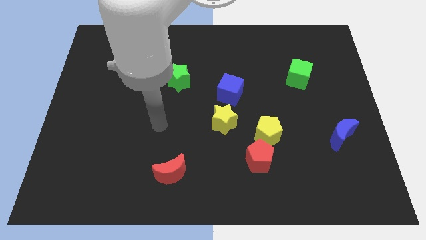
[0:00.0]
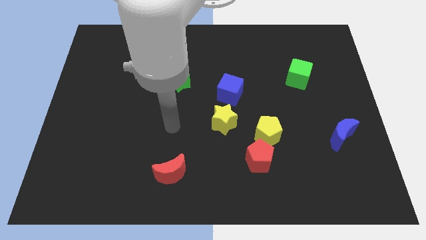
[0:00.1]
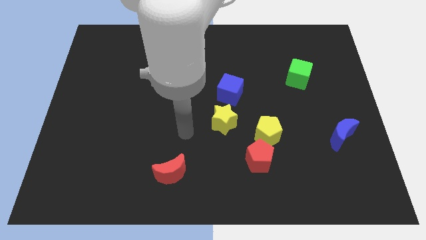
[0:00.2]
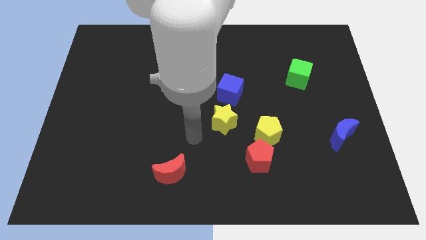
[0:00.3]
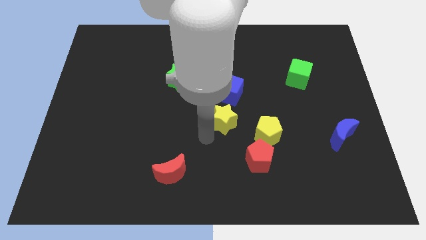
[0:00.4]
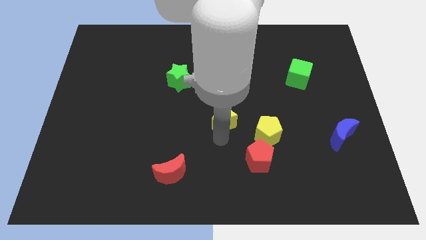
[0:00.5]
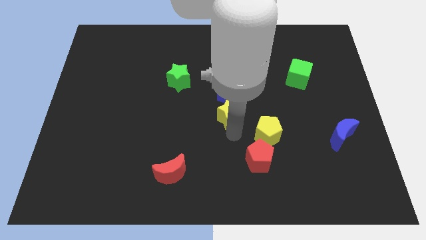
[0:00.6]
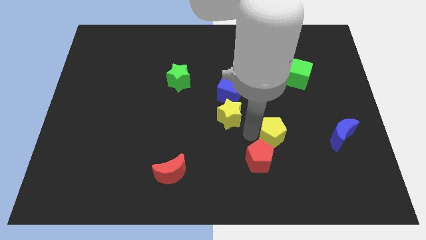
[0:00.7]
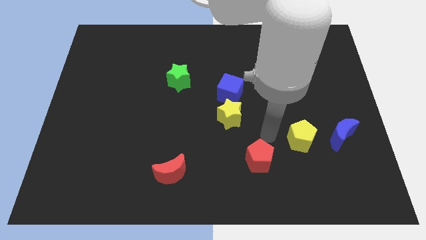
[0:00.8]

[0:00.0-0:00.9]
separate the red pentagon from the yellow pentagon

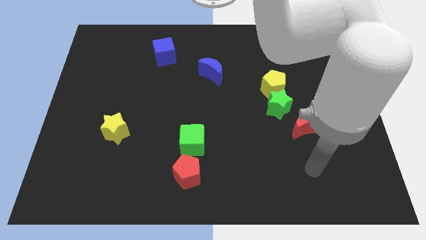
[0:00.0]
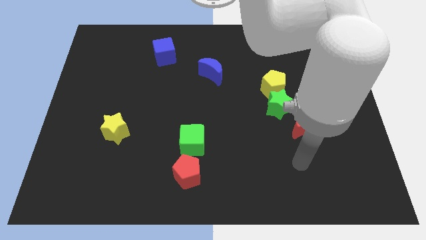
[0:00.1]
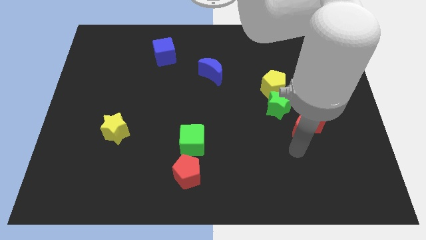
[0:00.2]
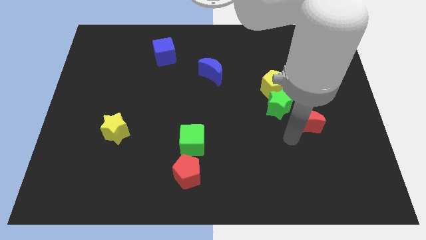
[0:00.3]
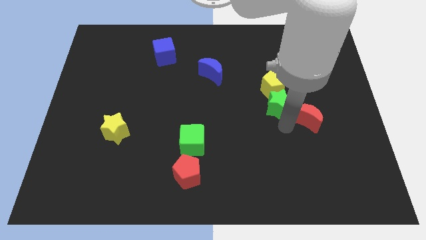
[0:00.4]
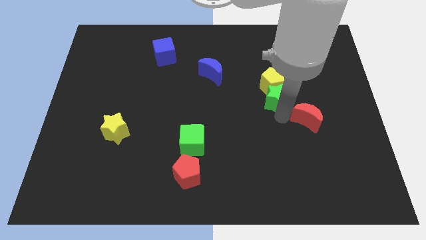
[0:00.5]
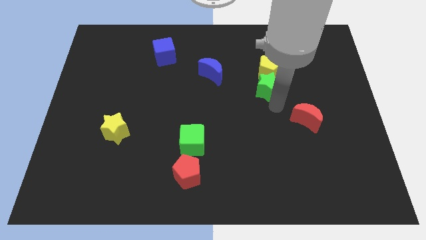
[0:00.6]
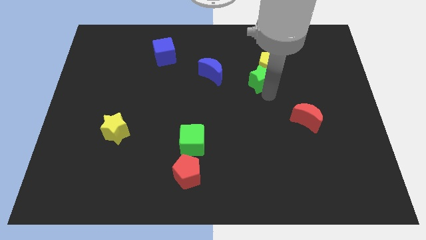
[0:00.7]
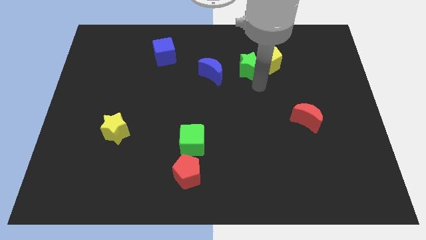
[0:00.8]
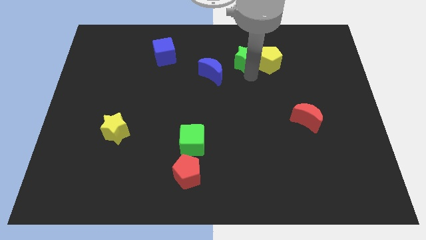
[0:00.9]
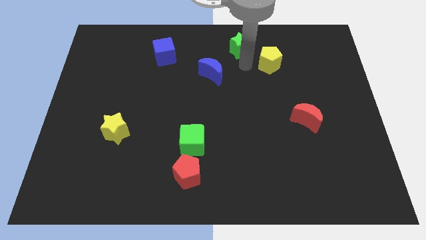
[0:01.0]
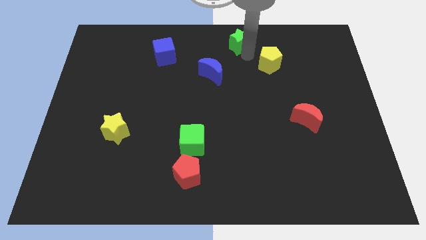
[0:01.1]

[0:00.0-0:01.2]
pull the yellow pentagon apart from the green star

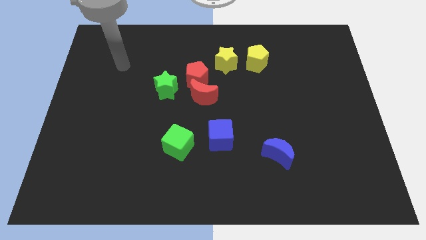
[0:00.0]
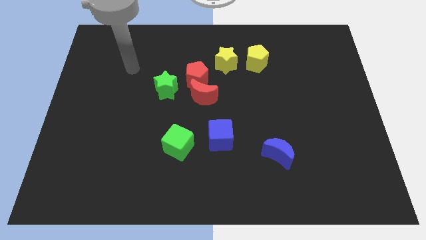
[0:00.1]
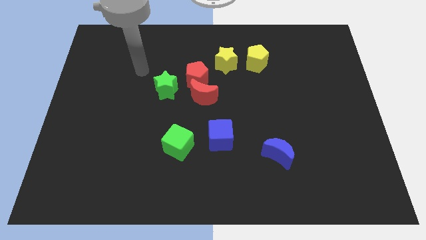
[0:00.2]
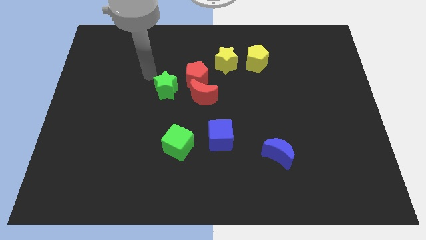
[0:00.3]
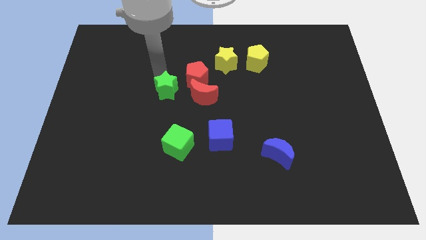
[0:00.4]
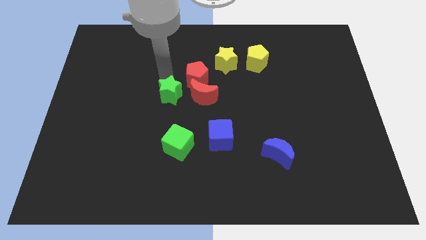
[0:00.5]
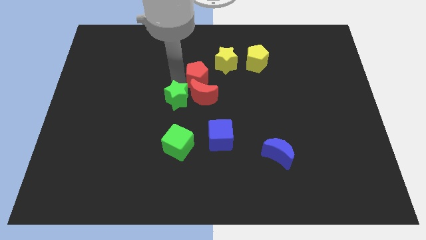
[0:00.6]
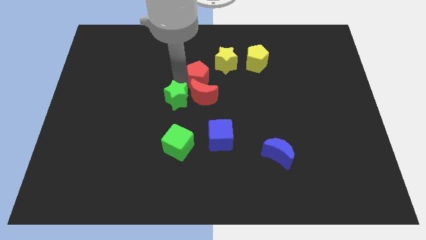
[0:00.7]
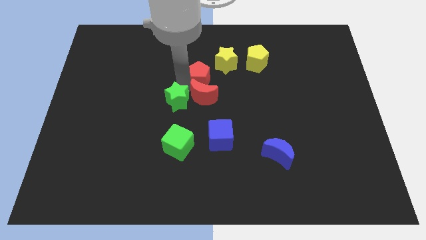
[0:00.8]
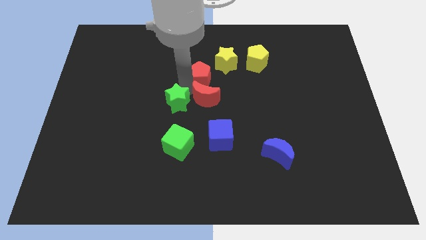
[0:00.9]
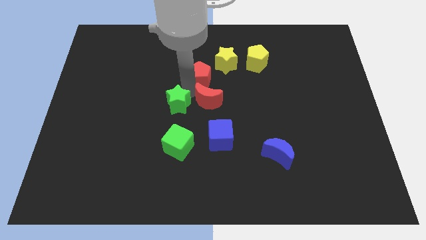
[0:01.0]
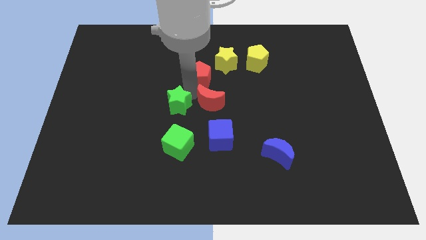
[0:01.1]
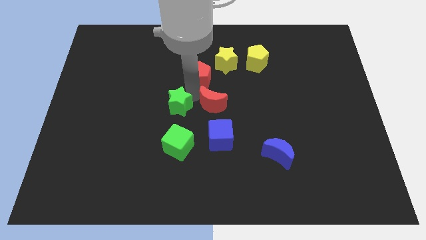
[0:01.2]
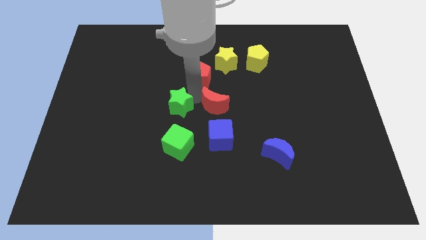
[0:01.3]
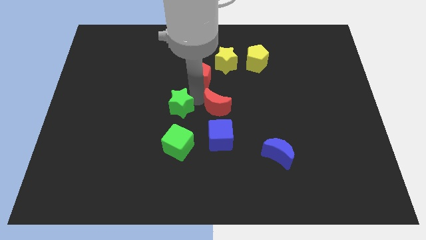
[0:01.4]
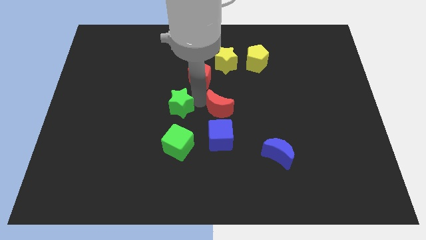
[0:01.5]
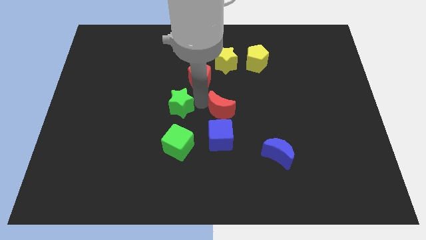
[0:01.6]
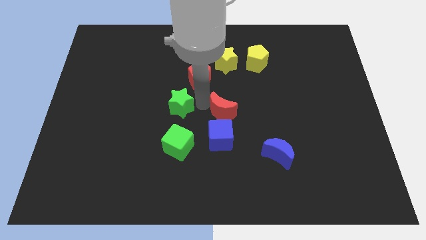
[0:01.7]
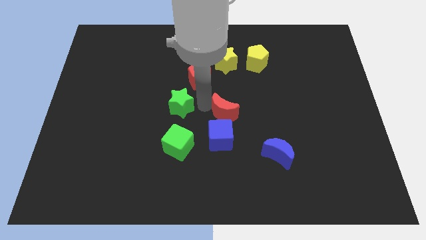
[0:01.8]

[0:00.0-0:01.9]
pull the red moon apart from the red pentagon and green star

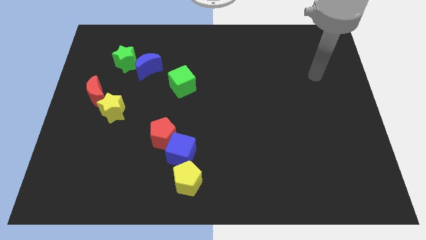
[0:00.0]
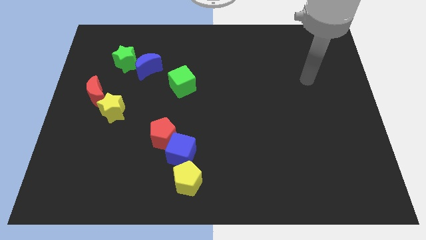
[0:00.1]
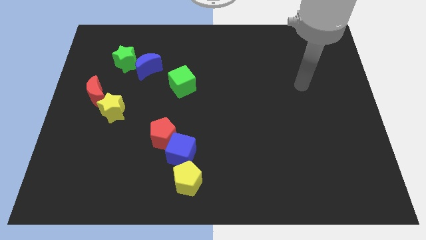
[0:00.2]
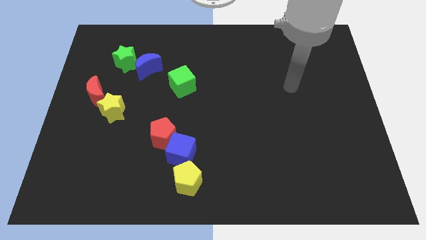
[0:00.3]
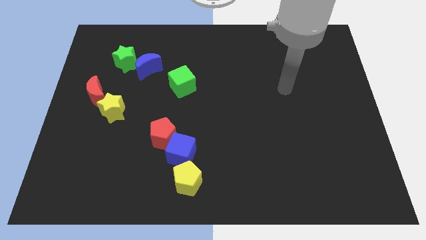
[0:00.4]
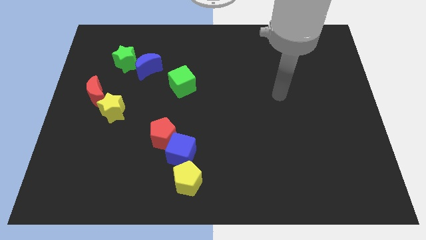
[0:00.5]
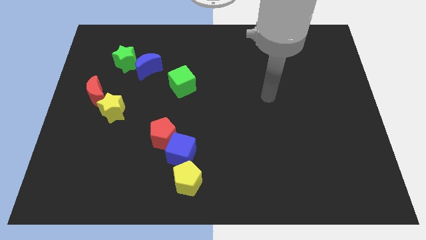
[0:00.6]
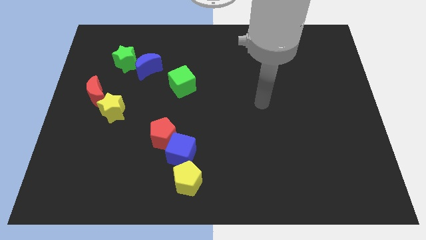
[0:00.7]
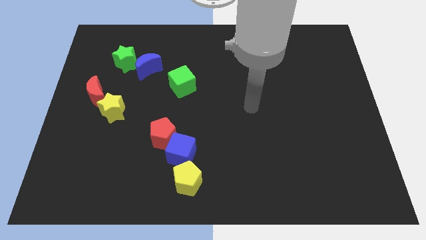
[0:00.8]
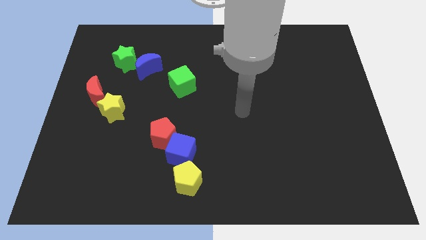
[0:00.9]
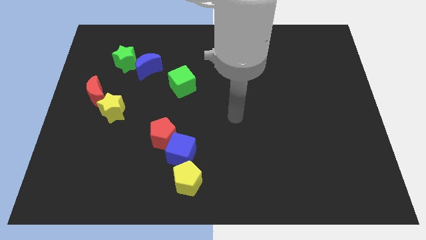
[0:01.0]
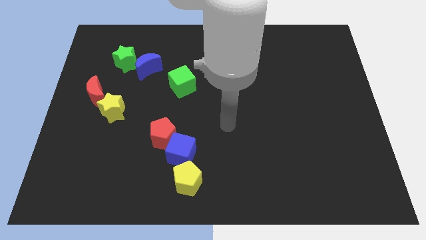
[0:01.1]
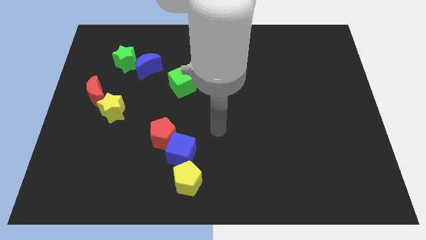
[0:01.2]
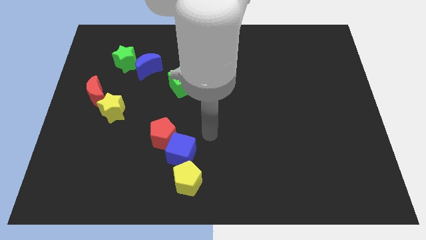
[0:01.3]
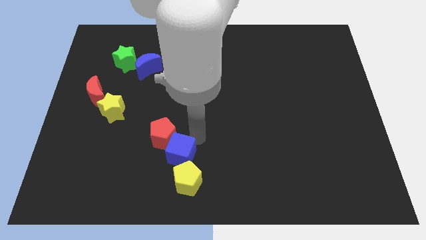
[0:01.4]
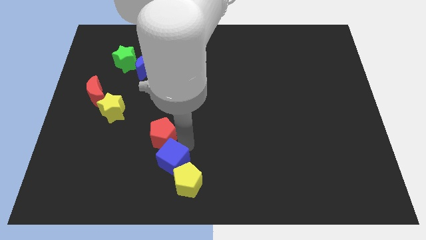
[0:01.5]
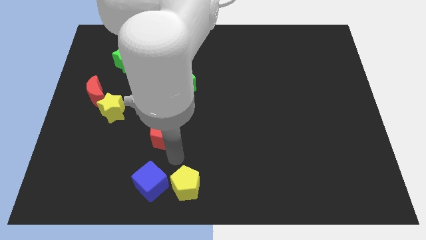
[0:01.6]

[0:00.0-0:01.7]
pull the red pentagon apart from the blue cube

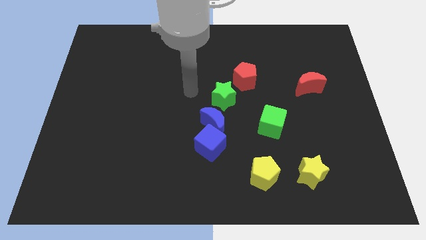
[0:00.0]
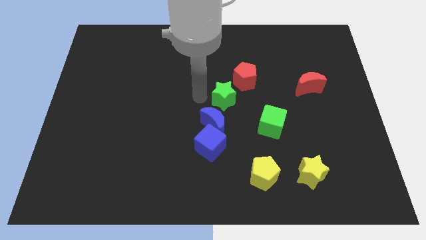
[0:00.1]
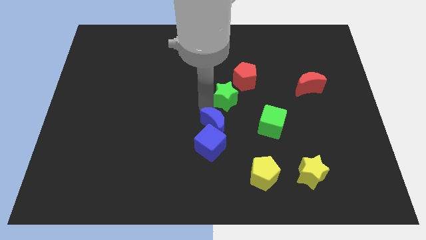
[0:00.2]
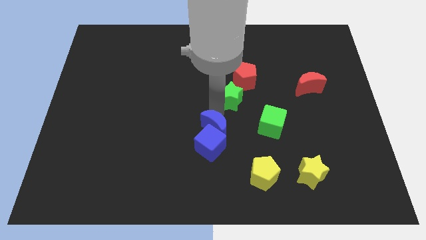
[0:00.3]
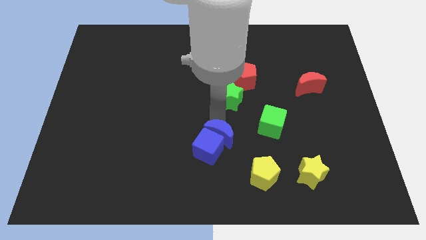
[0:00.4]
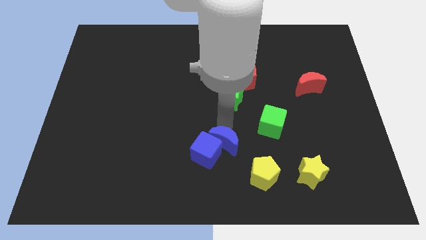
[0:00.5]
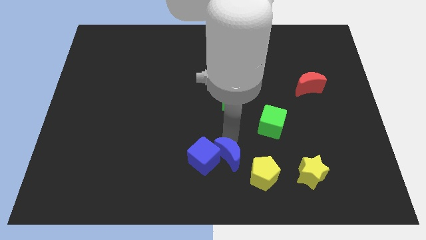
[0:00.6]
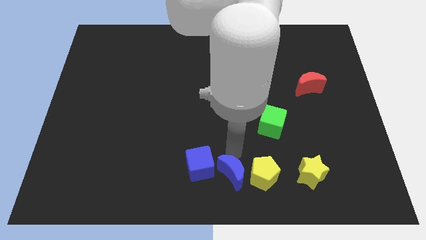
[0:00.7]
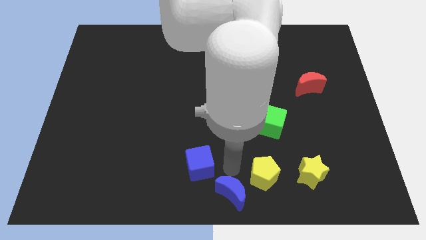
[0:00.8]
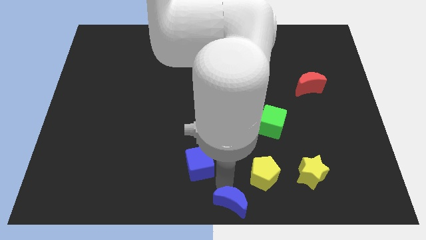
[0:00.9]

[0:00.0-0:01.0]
move the blue cube away from the blue moon

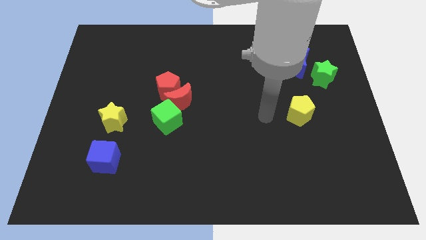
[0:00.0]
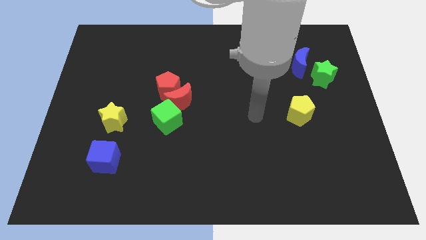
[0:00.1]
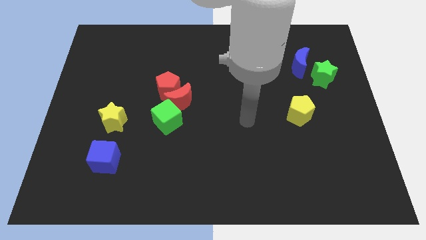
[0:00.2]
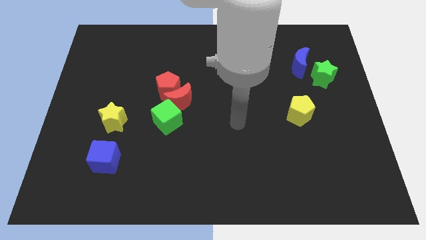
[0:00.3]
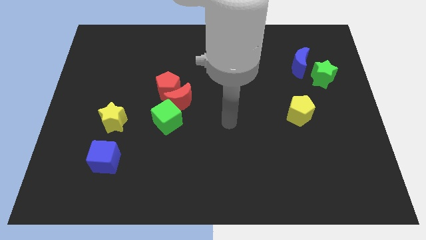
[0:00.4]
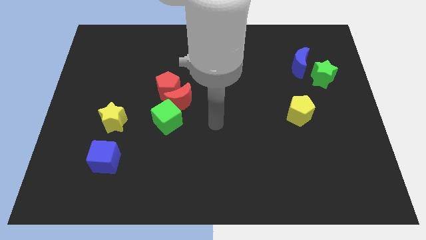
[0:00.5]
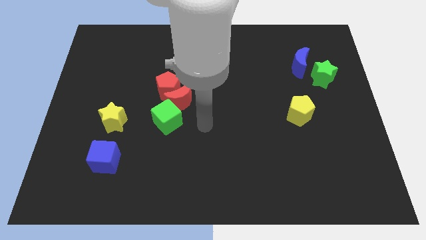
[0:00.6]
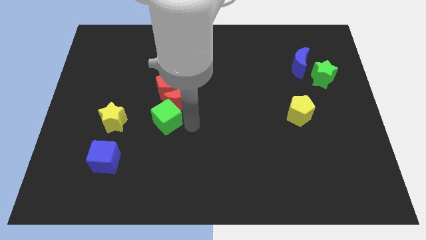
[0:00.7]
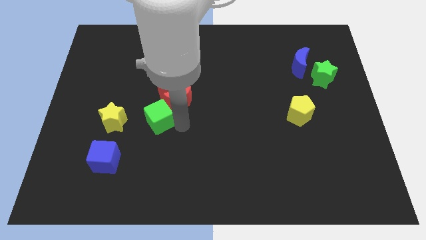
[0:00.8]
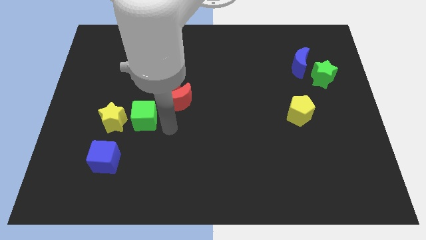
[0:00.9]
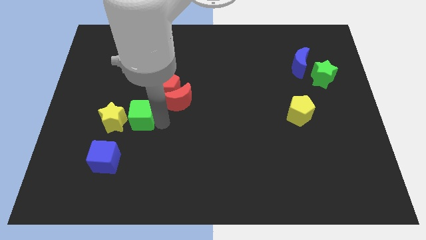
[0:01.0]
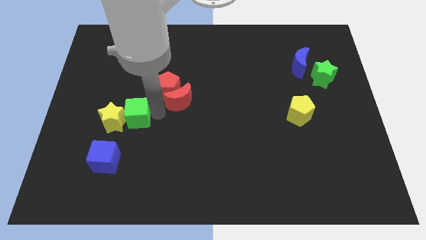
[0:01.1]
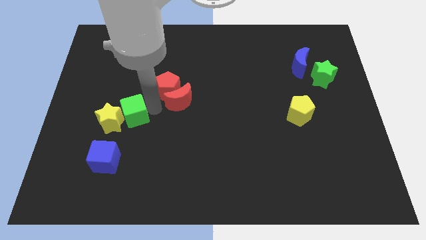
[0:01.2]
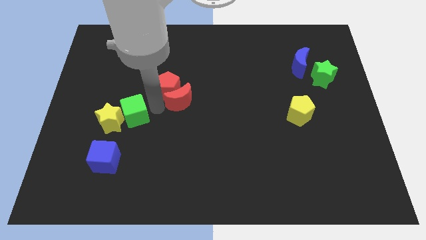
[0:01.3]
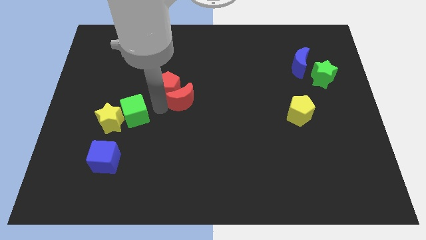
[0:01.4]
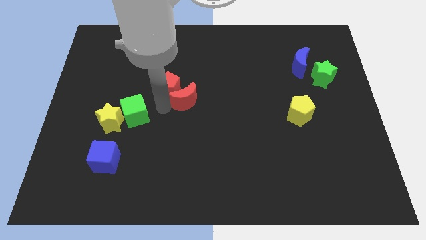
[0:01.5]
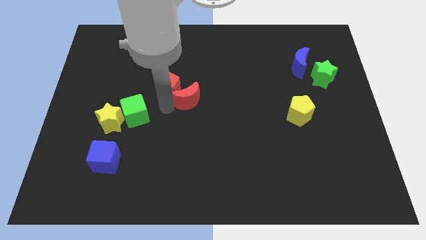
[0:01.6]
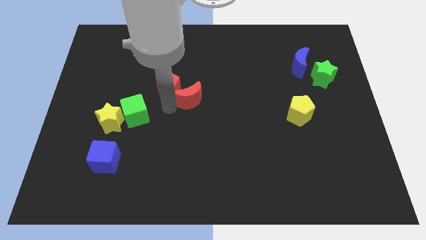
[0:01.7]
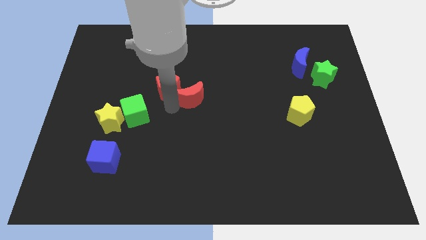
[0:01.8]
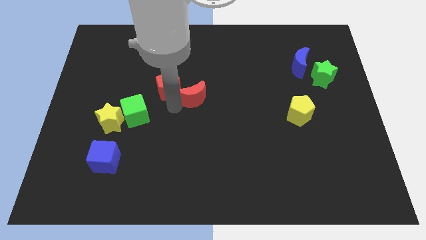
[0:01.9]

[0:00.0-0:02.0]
separate the red moon from the red pentagon and green cube

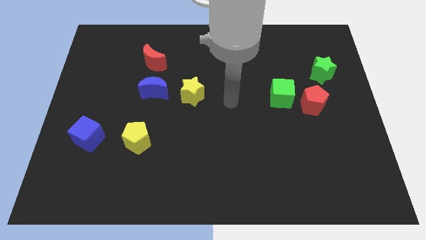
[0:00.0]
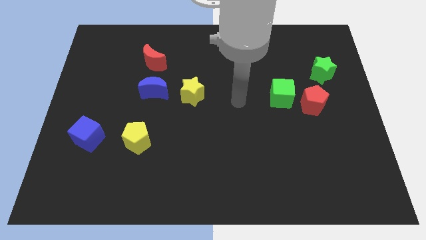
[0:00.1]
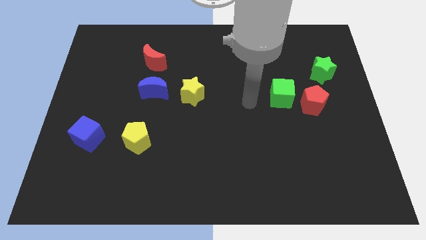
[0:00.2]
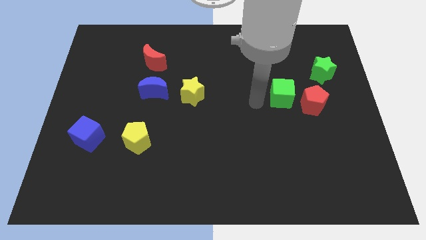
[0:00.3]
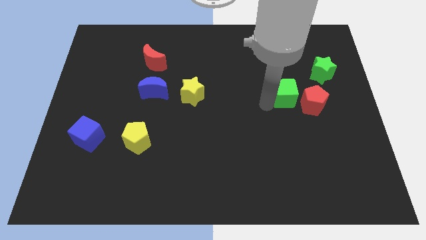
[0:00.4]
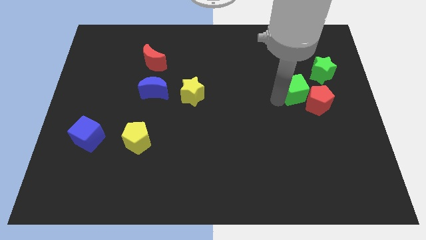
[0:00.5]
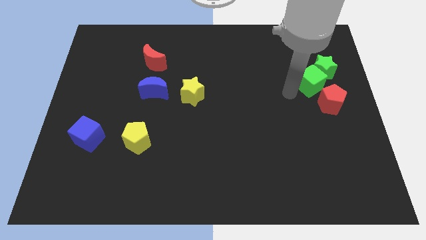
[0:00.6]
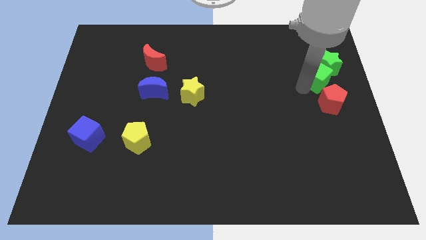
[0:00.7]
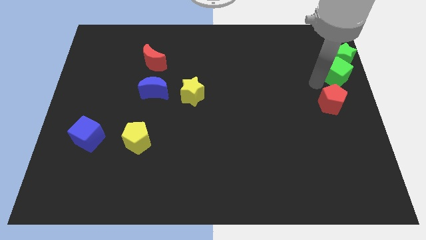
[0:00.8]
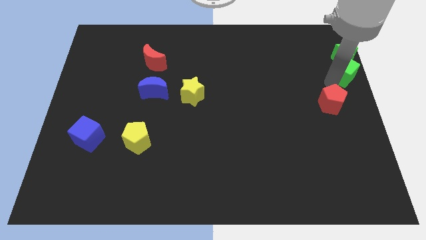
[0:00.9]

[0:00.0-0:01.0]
pull the red pentagon apart from the green cube
